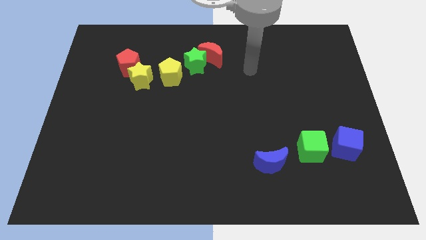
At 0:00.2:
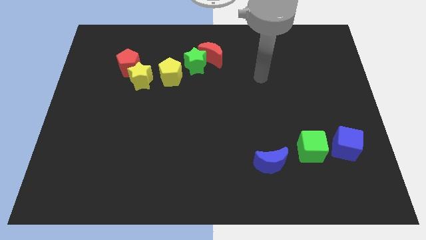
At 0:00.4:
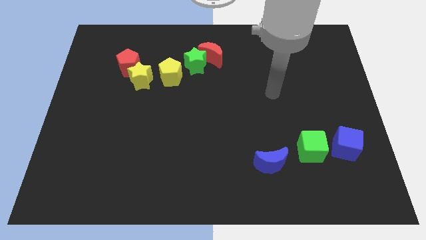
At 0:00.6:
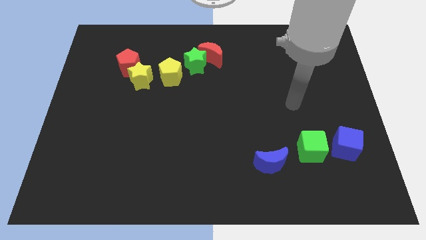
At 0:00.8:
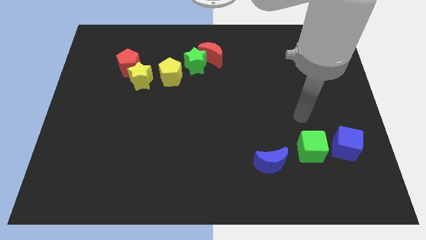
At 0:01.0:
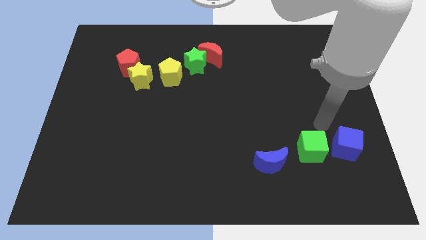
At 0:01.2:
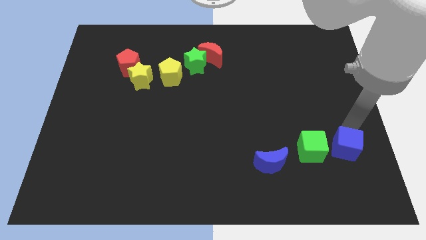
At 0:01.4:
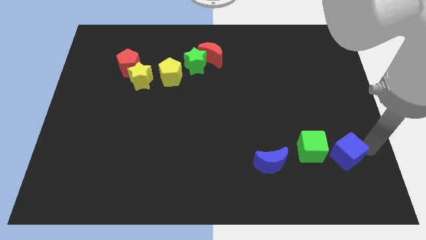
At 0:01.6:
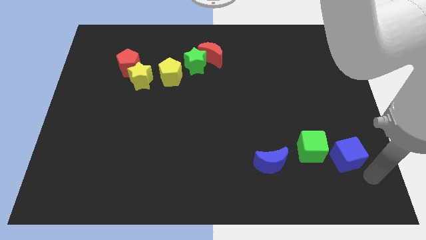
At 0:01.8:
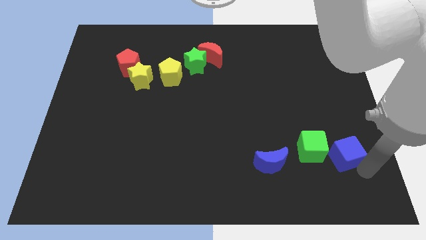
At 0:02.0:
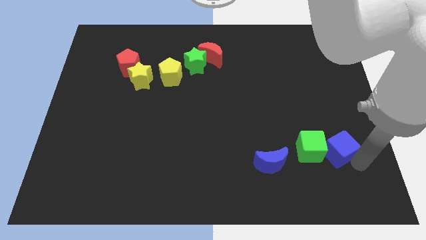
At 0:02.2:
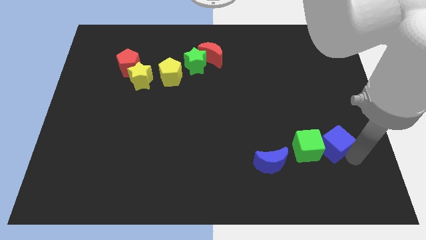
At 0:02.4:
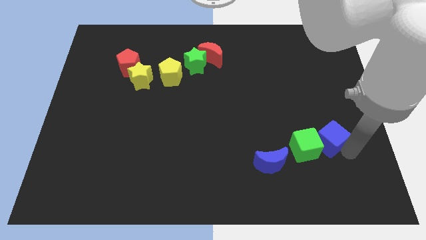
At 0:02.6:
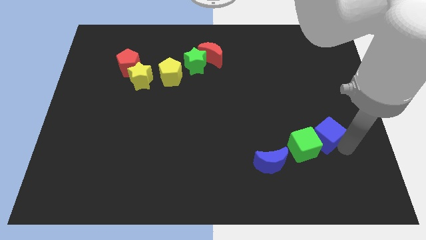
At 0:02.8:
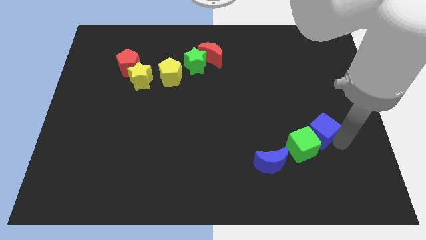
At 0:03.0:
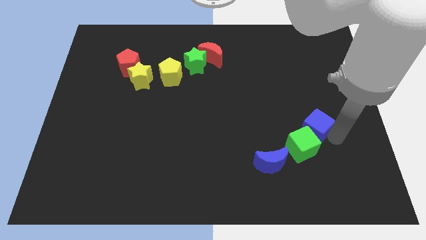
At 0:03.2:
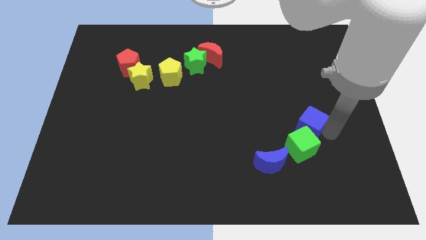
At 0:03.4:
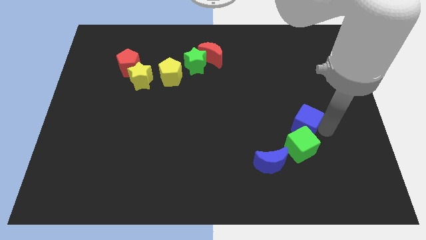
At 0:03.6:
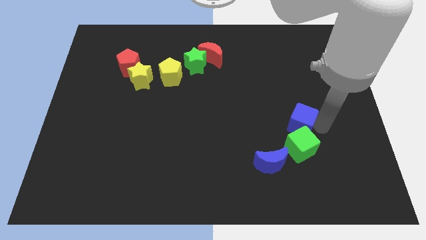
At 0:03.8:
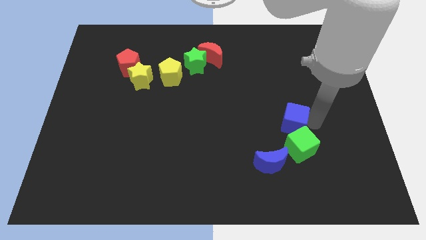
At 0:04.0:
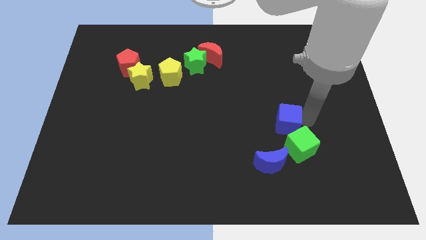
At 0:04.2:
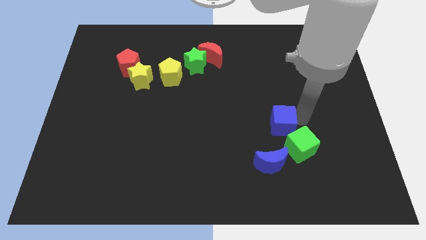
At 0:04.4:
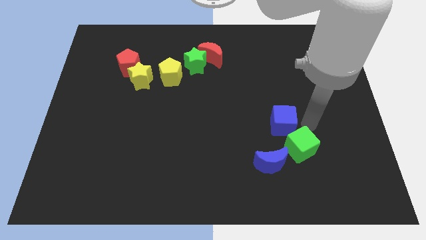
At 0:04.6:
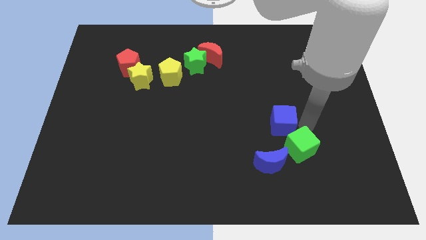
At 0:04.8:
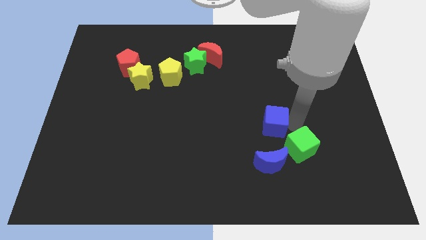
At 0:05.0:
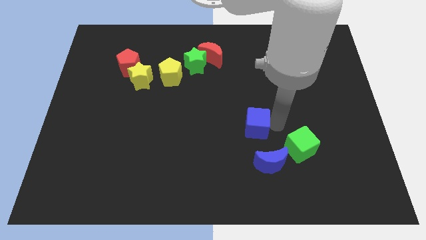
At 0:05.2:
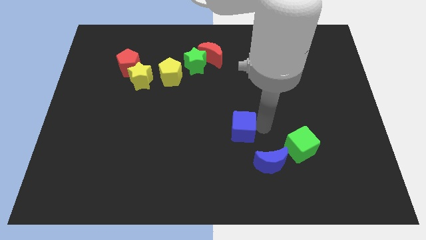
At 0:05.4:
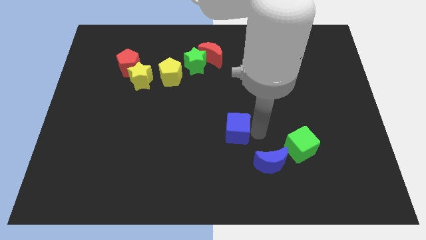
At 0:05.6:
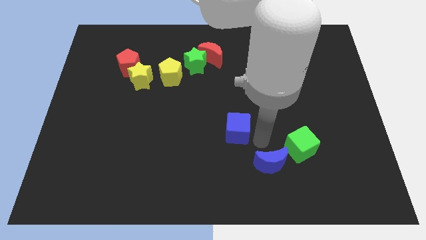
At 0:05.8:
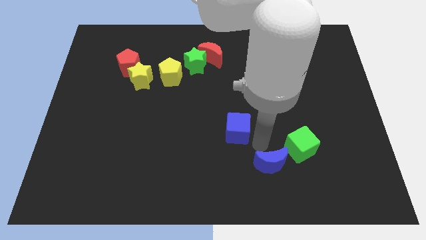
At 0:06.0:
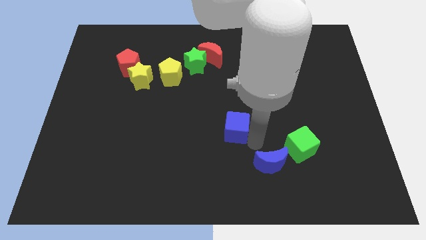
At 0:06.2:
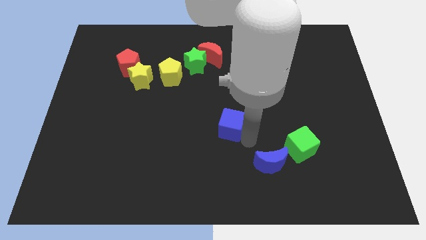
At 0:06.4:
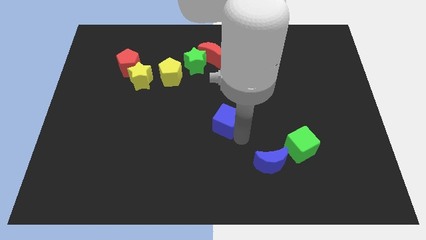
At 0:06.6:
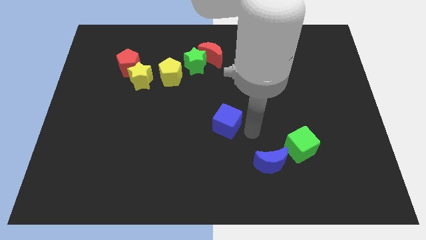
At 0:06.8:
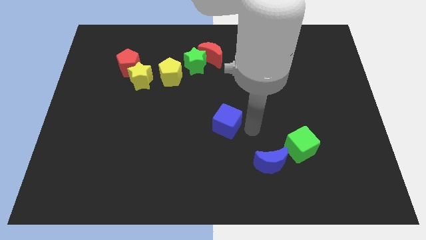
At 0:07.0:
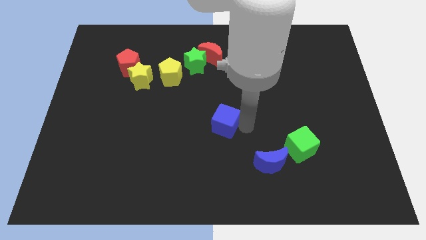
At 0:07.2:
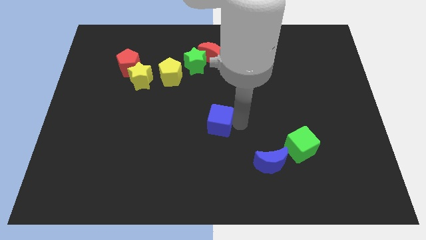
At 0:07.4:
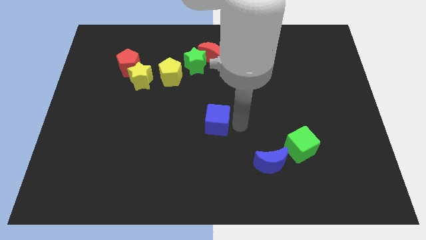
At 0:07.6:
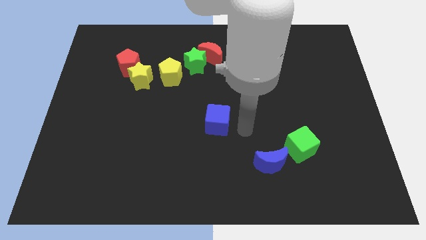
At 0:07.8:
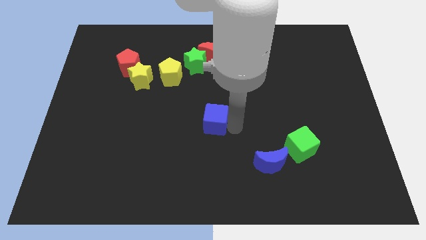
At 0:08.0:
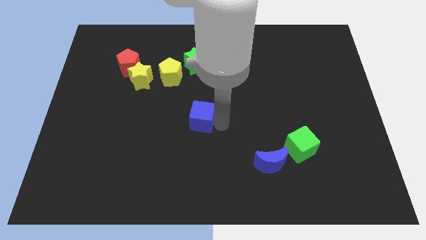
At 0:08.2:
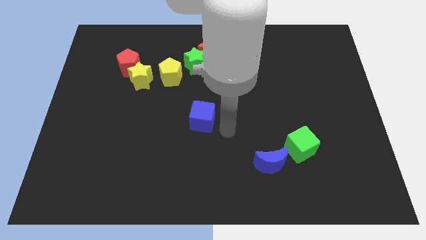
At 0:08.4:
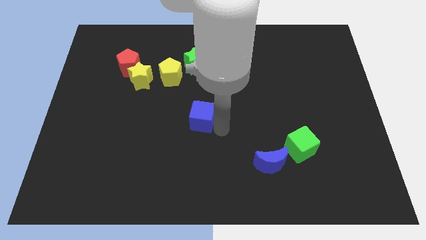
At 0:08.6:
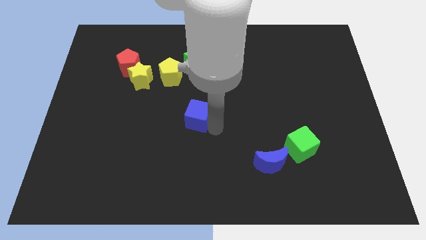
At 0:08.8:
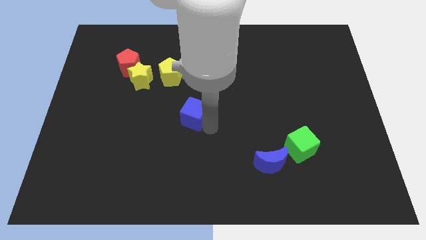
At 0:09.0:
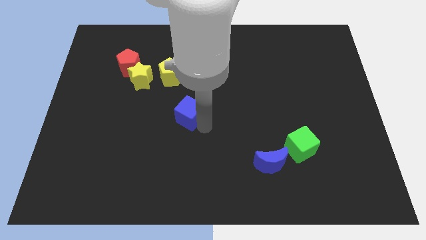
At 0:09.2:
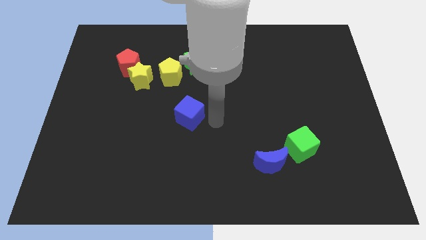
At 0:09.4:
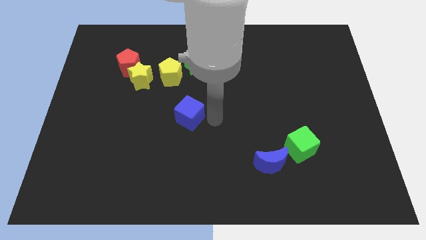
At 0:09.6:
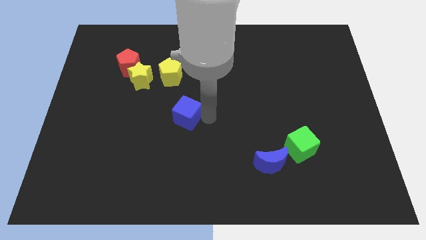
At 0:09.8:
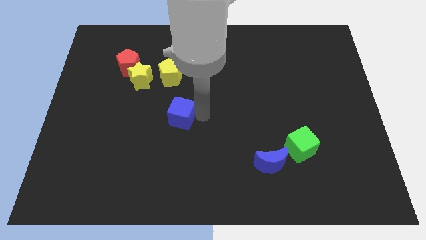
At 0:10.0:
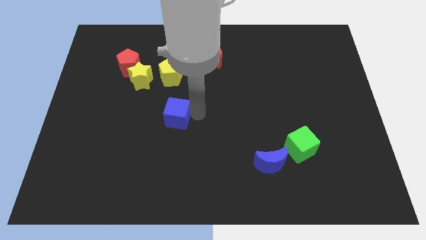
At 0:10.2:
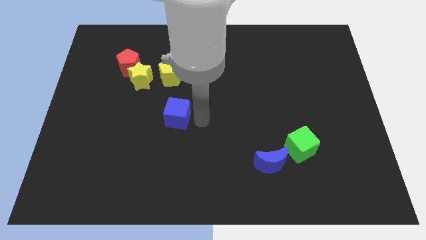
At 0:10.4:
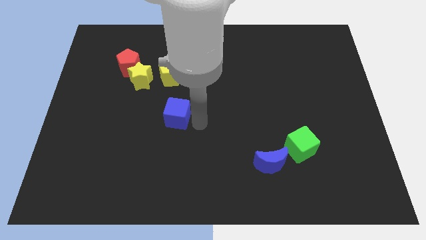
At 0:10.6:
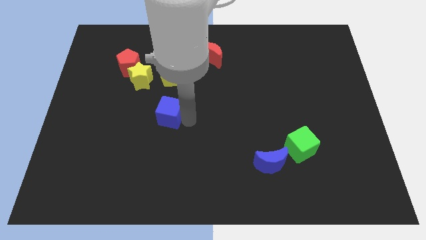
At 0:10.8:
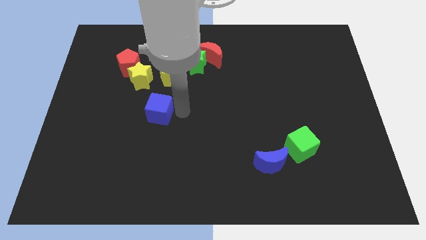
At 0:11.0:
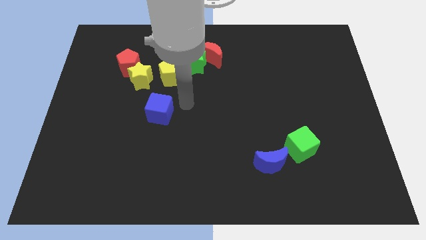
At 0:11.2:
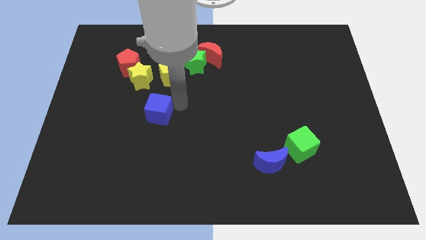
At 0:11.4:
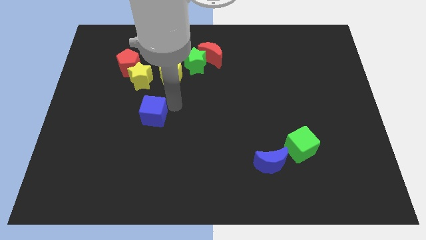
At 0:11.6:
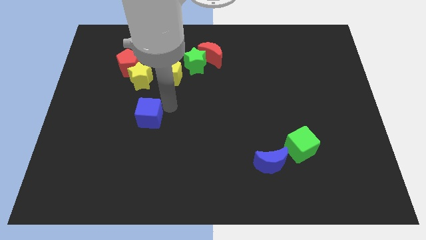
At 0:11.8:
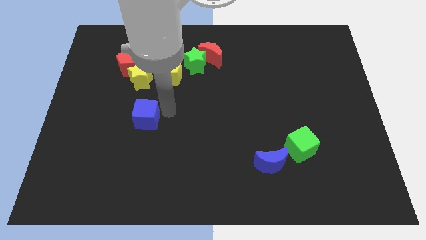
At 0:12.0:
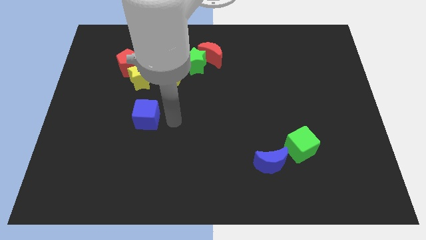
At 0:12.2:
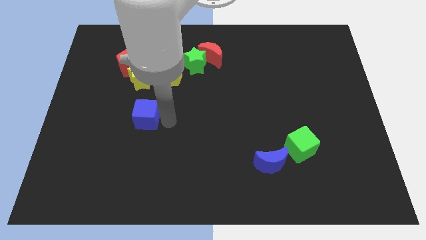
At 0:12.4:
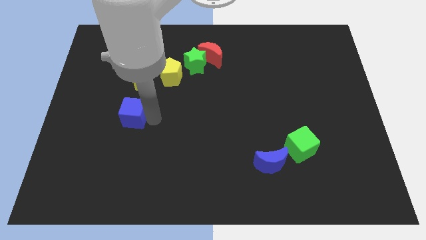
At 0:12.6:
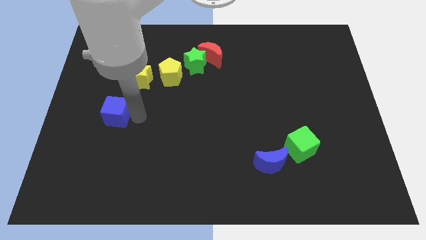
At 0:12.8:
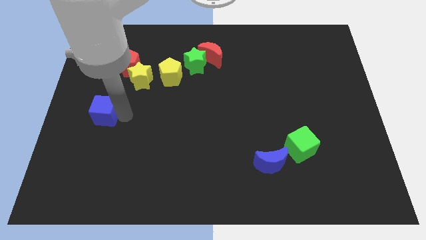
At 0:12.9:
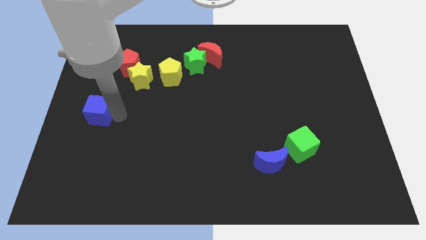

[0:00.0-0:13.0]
slide the blue cube to the left side

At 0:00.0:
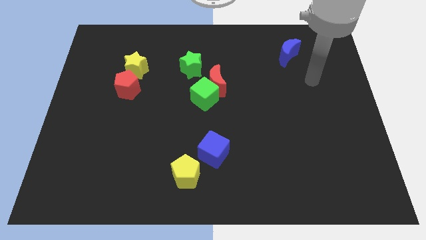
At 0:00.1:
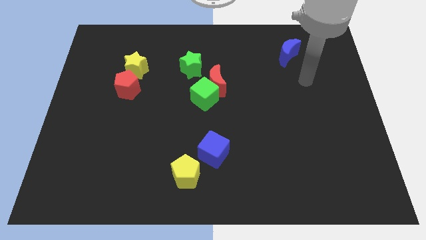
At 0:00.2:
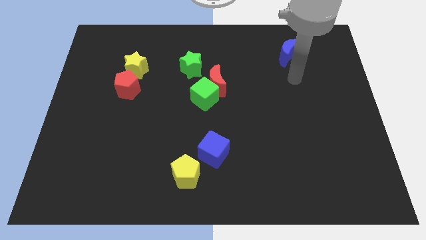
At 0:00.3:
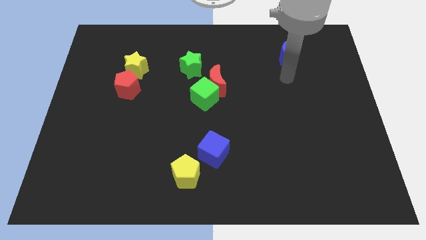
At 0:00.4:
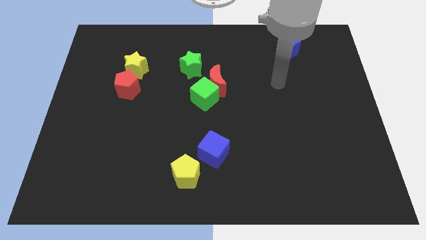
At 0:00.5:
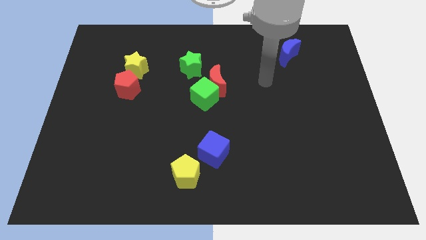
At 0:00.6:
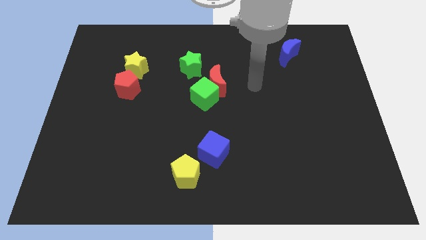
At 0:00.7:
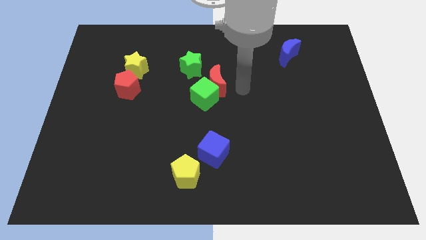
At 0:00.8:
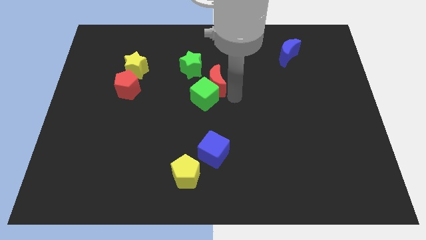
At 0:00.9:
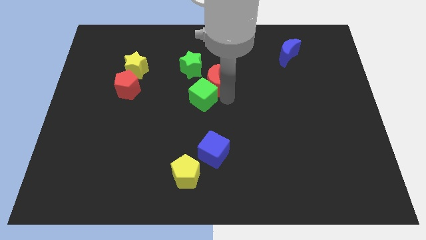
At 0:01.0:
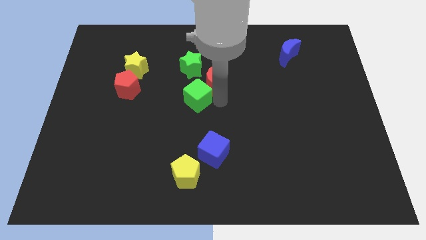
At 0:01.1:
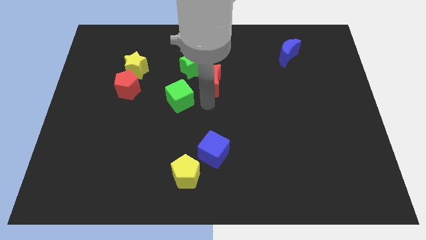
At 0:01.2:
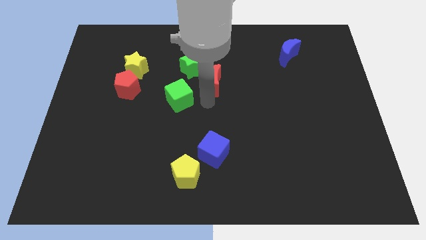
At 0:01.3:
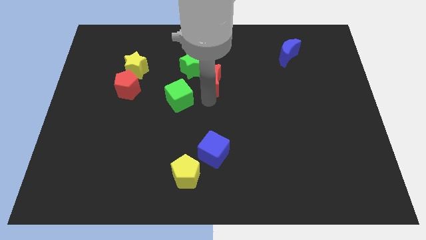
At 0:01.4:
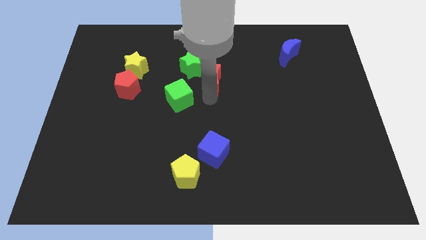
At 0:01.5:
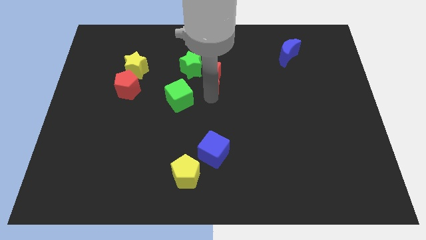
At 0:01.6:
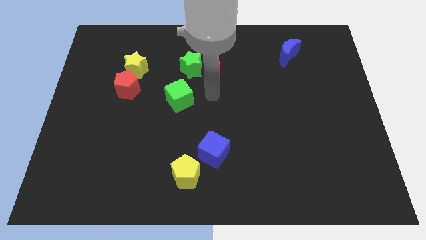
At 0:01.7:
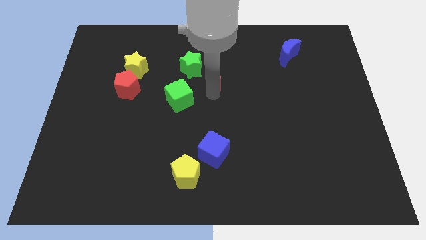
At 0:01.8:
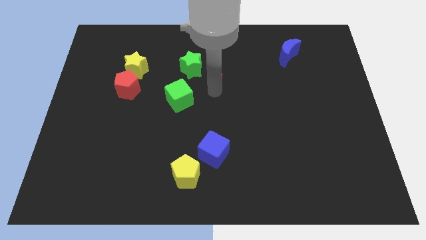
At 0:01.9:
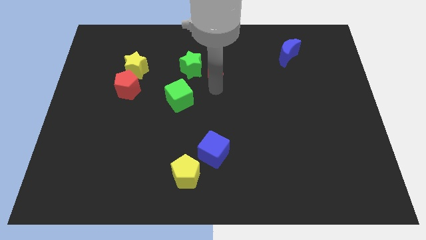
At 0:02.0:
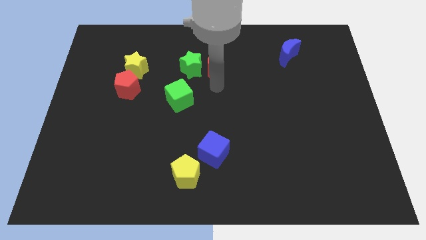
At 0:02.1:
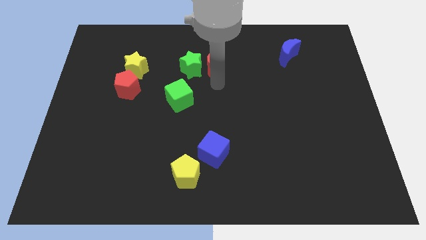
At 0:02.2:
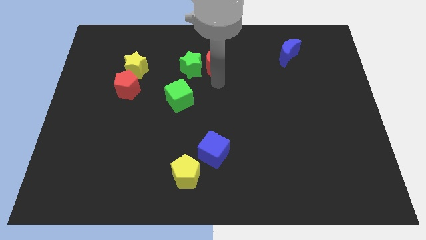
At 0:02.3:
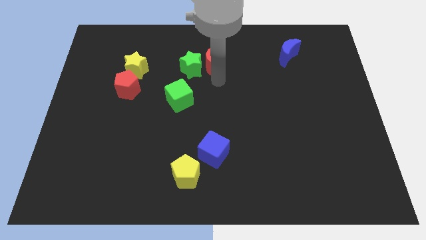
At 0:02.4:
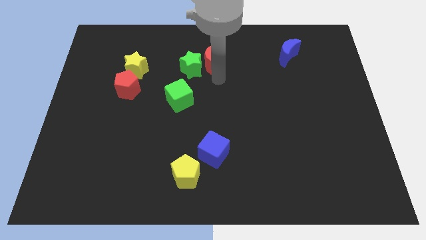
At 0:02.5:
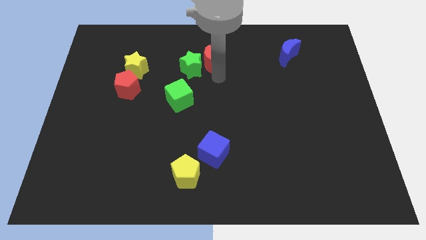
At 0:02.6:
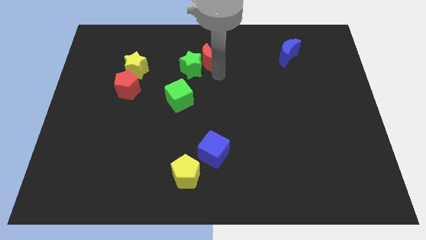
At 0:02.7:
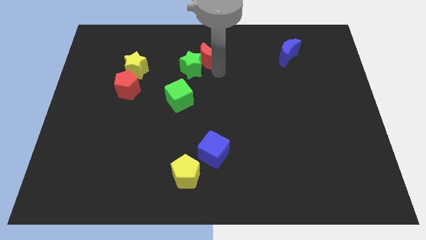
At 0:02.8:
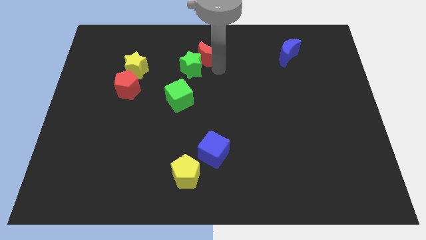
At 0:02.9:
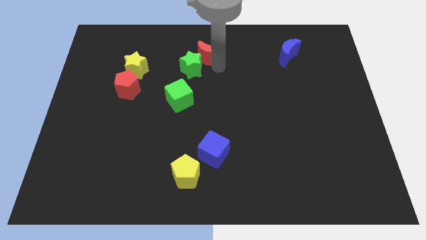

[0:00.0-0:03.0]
move the red moon to the towards your base
